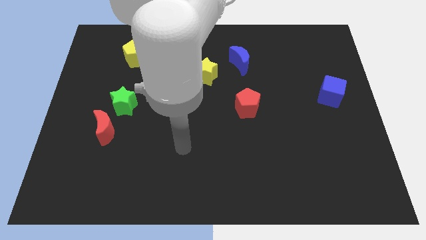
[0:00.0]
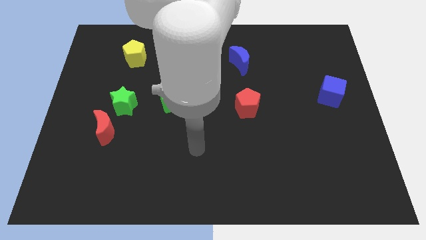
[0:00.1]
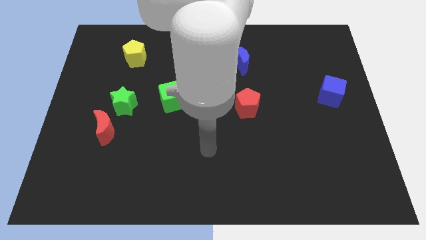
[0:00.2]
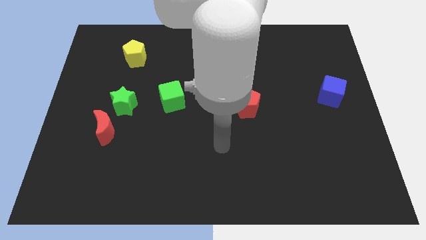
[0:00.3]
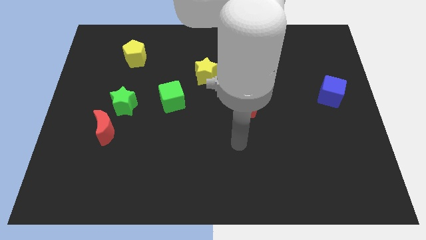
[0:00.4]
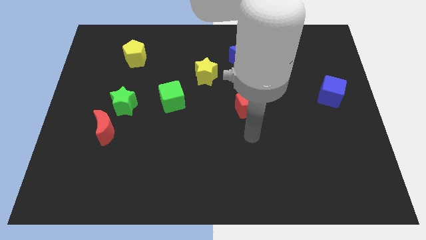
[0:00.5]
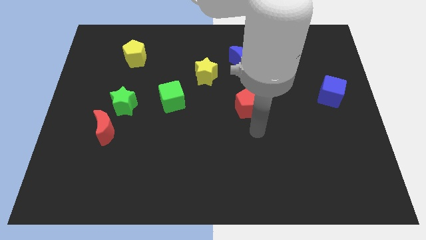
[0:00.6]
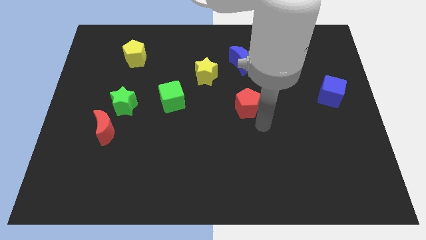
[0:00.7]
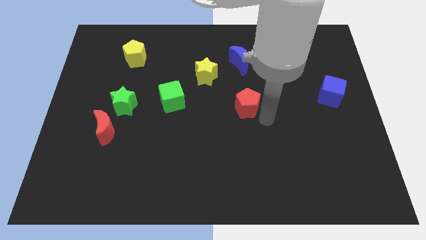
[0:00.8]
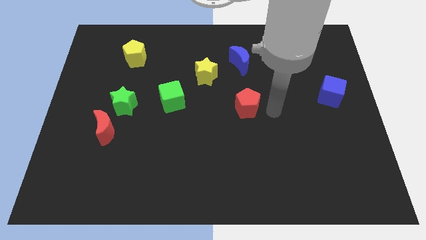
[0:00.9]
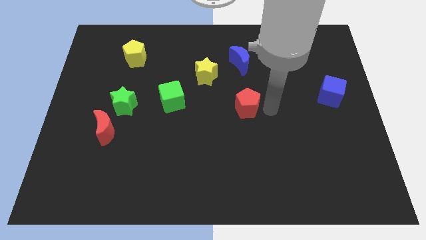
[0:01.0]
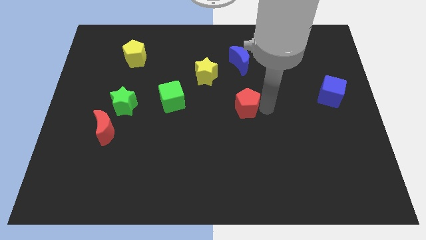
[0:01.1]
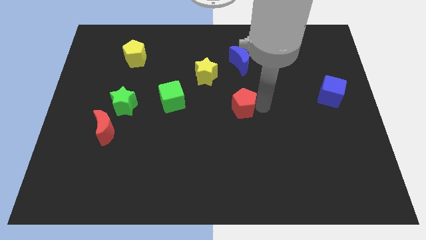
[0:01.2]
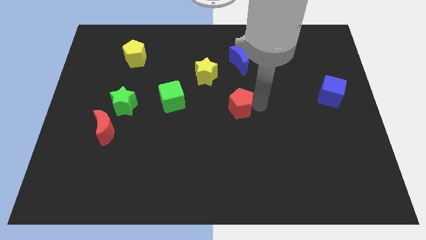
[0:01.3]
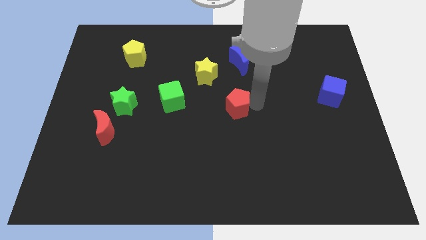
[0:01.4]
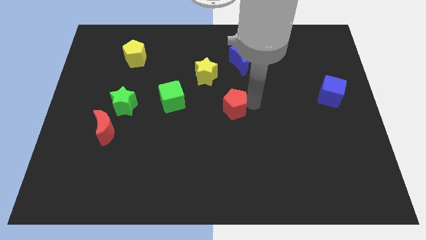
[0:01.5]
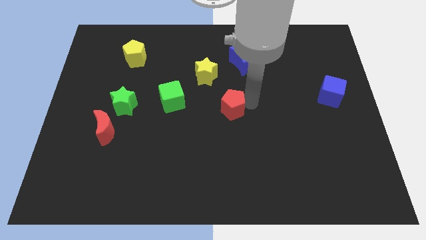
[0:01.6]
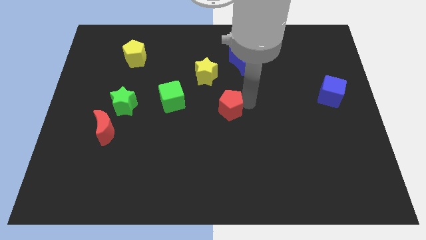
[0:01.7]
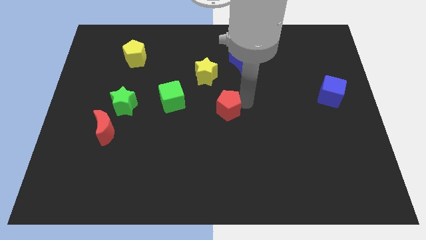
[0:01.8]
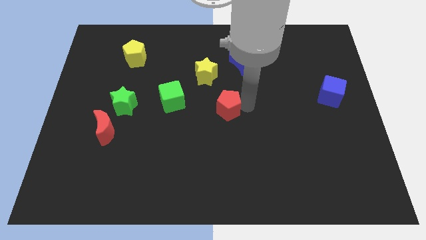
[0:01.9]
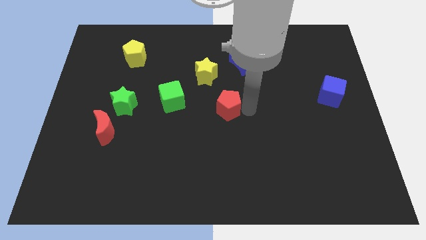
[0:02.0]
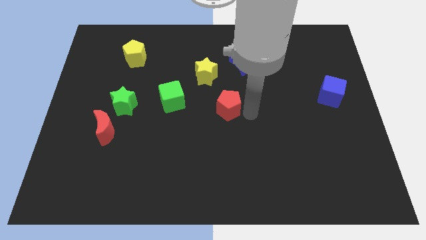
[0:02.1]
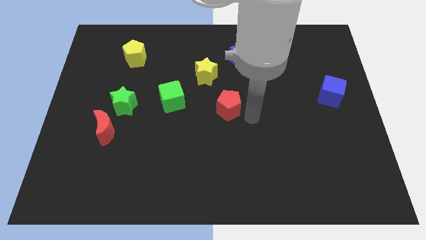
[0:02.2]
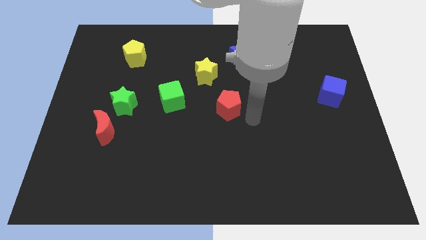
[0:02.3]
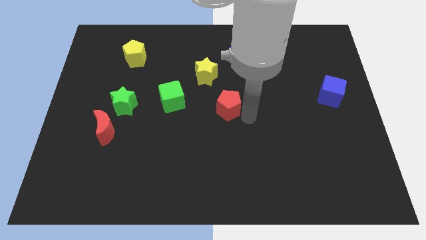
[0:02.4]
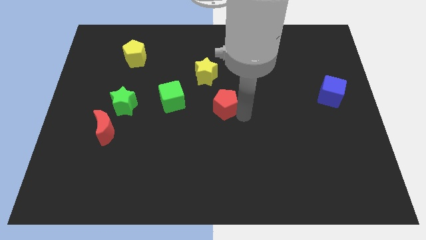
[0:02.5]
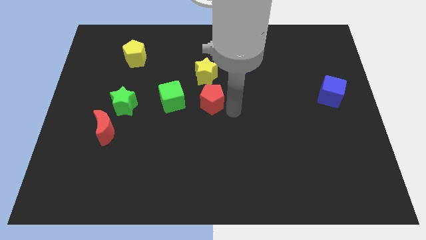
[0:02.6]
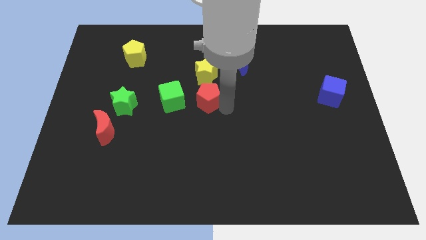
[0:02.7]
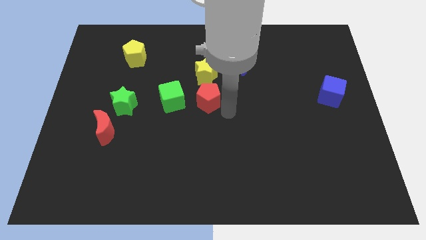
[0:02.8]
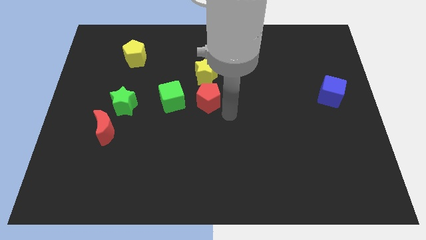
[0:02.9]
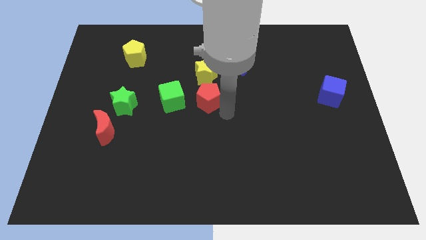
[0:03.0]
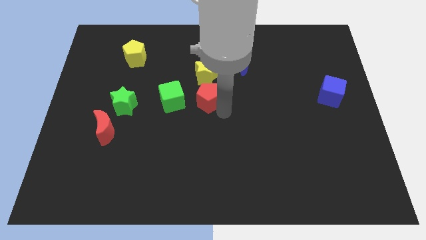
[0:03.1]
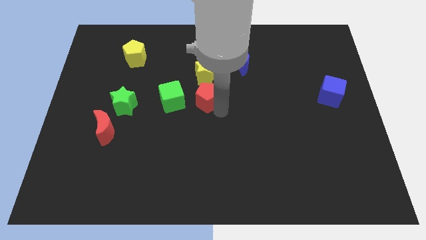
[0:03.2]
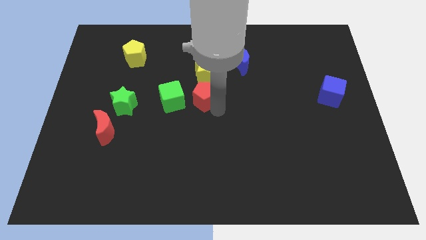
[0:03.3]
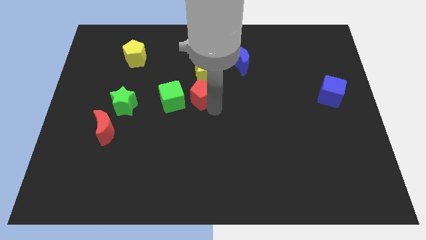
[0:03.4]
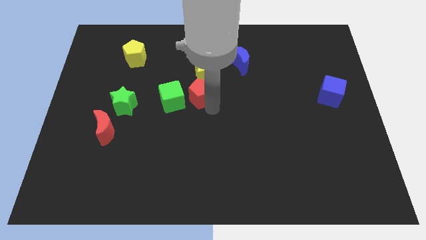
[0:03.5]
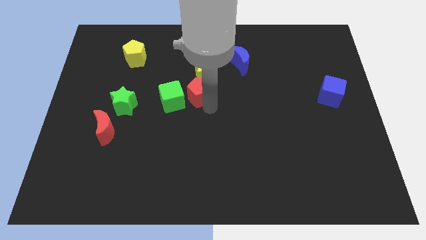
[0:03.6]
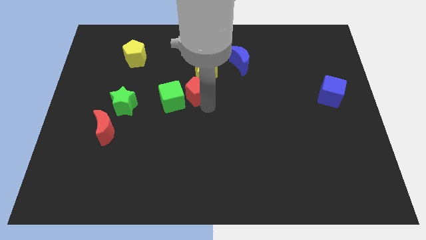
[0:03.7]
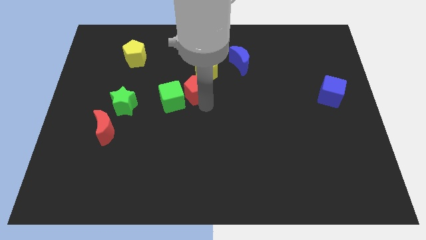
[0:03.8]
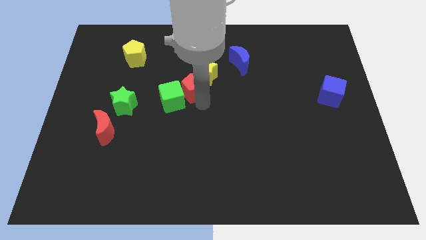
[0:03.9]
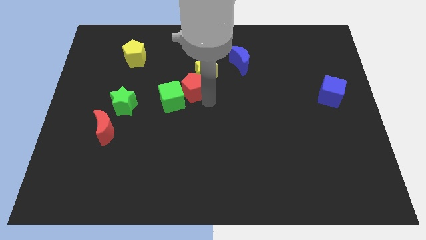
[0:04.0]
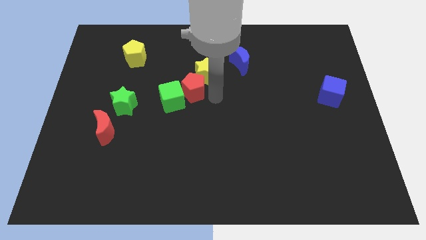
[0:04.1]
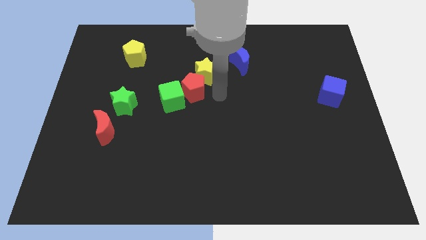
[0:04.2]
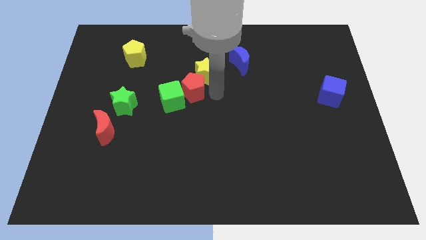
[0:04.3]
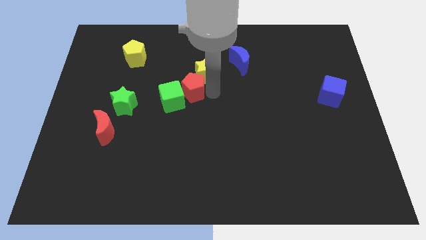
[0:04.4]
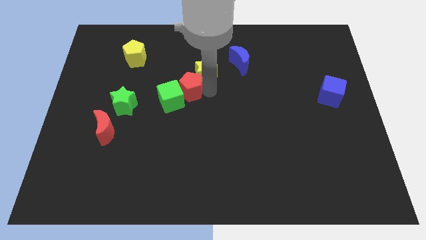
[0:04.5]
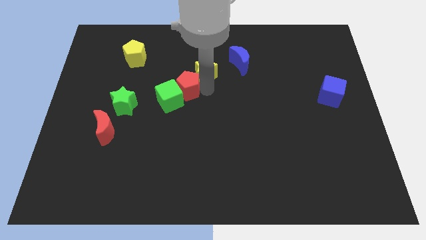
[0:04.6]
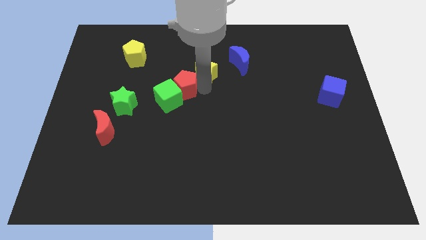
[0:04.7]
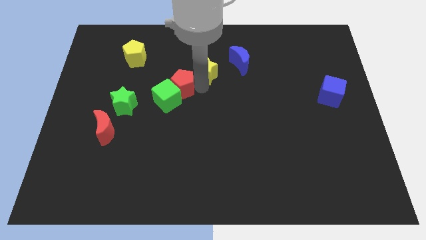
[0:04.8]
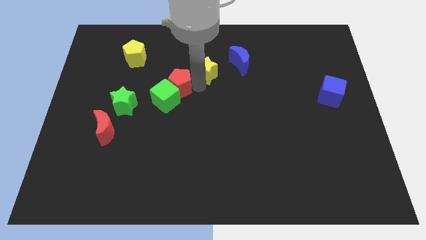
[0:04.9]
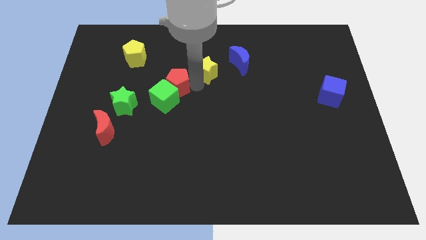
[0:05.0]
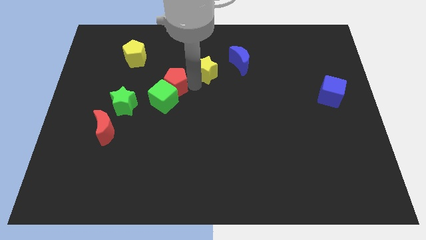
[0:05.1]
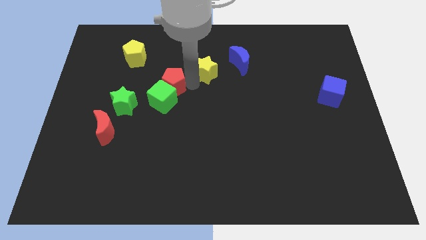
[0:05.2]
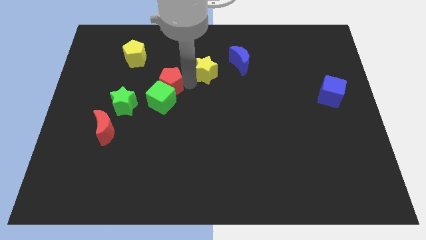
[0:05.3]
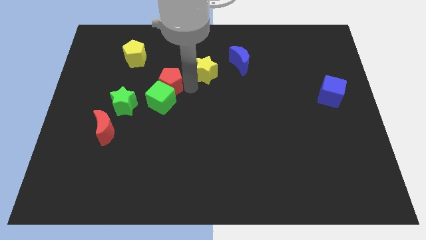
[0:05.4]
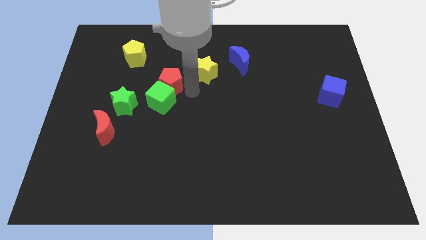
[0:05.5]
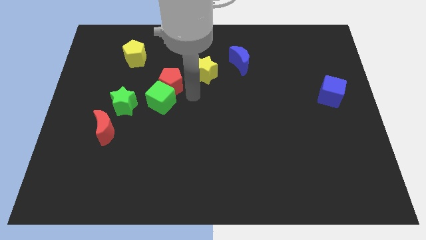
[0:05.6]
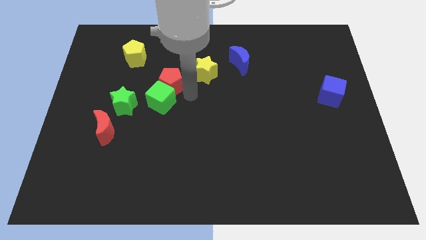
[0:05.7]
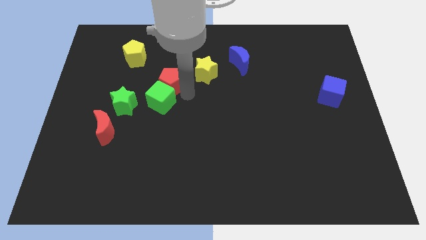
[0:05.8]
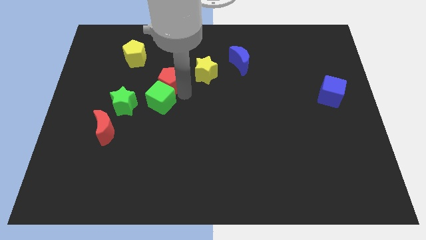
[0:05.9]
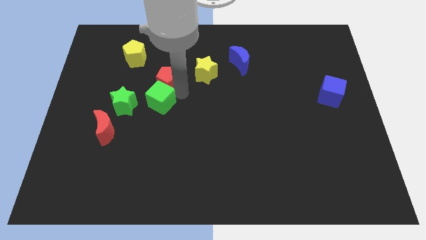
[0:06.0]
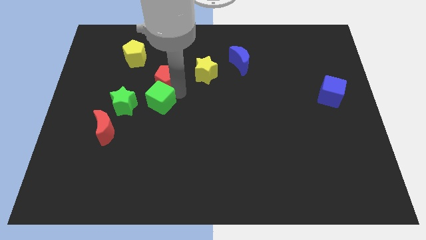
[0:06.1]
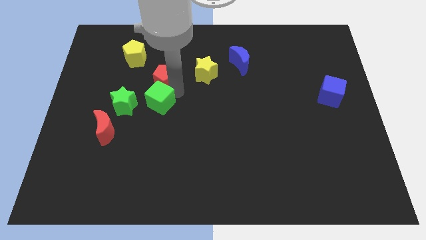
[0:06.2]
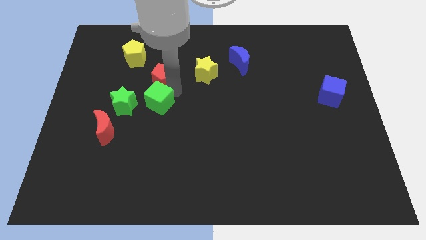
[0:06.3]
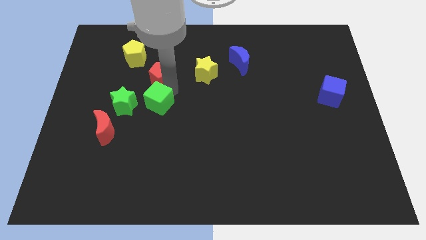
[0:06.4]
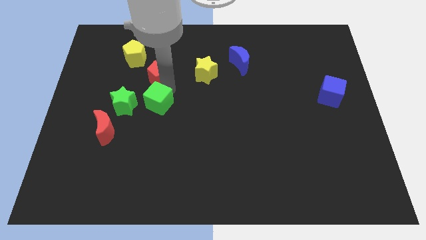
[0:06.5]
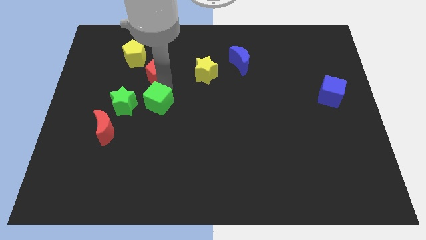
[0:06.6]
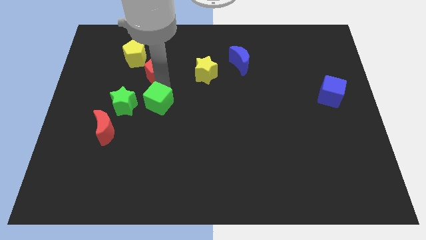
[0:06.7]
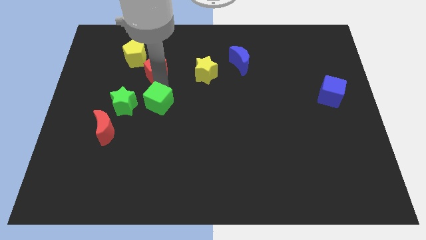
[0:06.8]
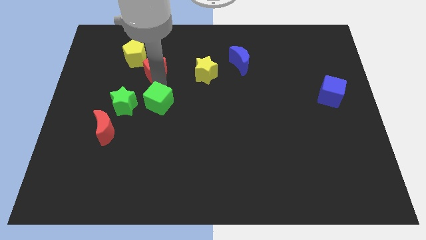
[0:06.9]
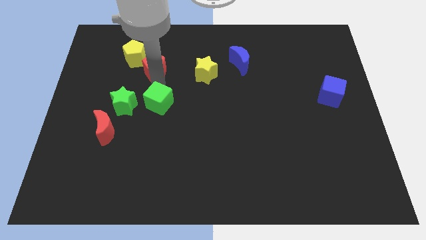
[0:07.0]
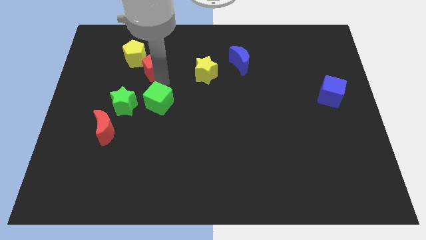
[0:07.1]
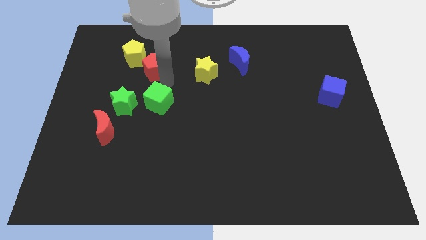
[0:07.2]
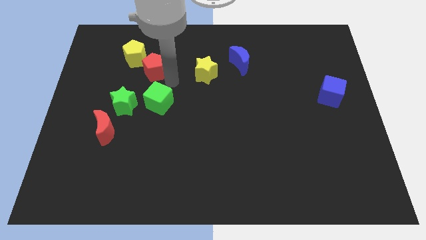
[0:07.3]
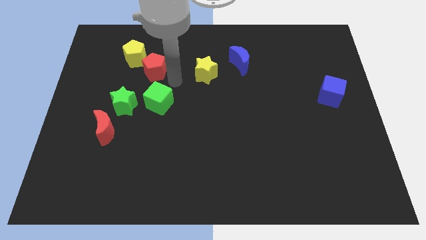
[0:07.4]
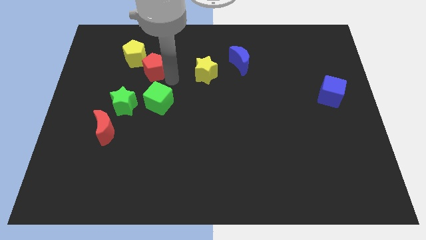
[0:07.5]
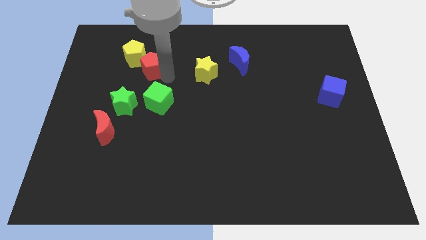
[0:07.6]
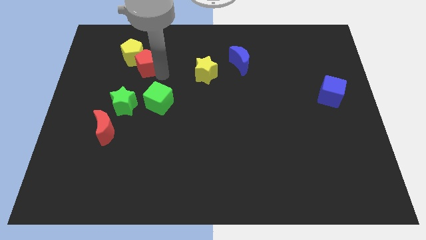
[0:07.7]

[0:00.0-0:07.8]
move the red pentagon next to the yellow pentagon
